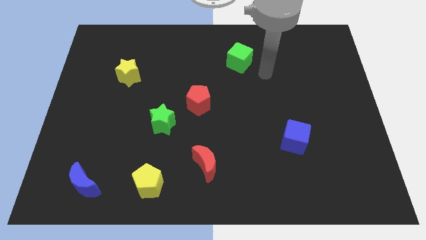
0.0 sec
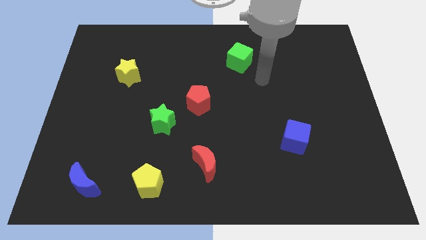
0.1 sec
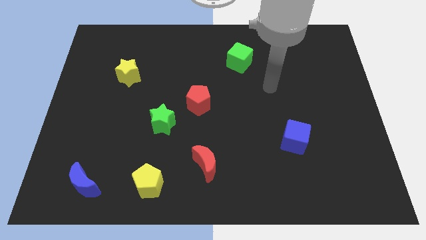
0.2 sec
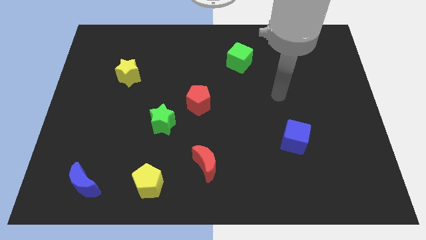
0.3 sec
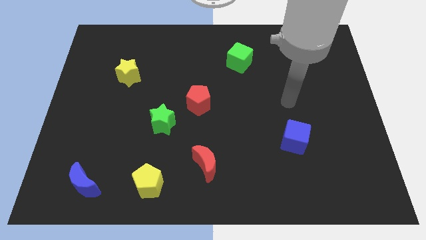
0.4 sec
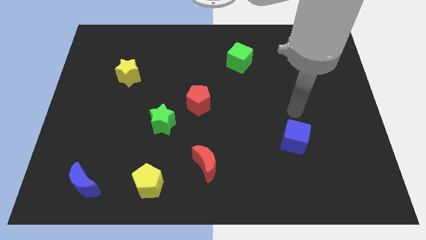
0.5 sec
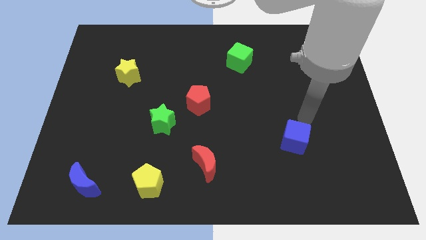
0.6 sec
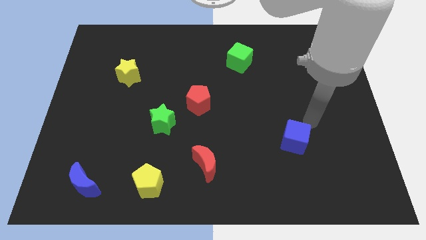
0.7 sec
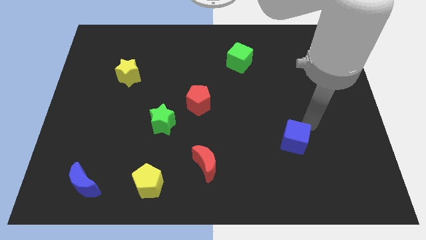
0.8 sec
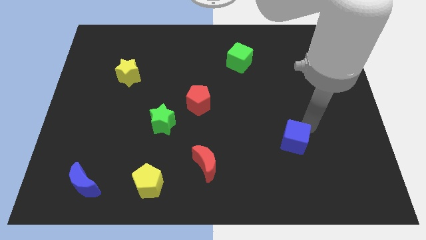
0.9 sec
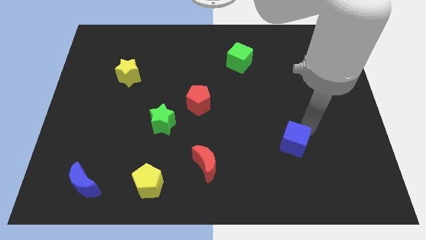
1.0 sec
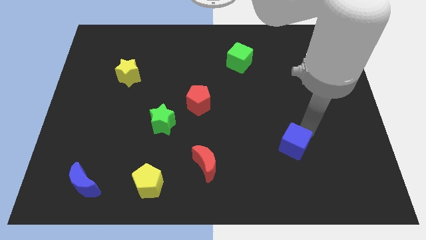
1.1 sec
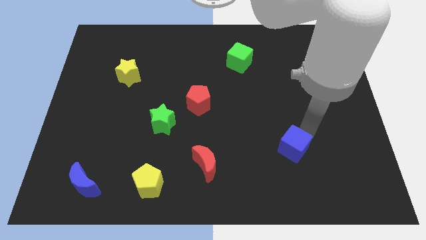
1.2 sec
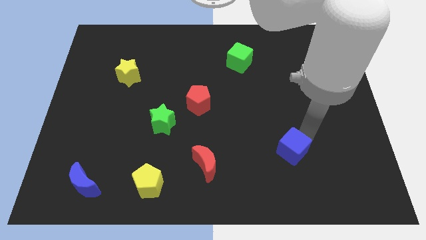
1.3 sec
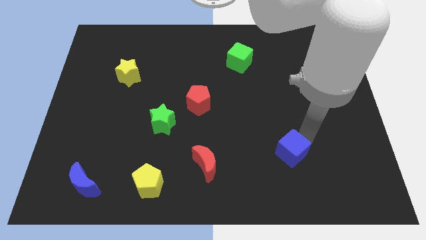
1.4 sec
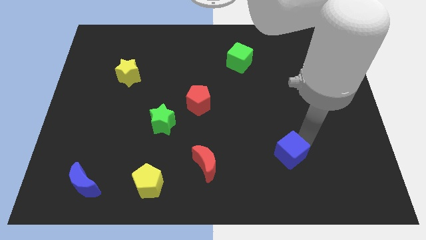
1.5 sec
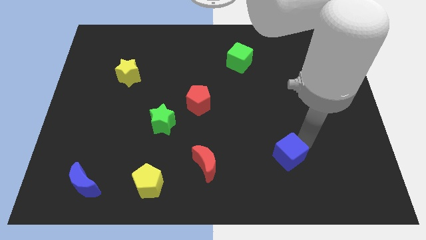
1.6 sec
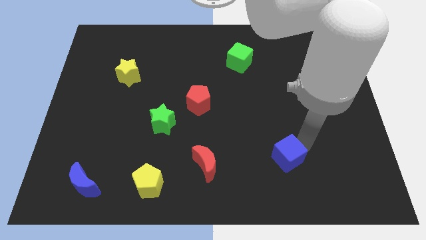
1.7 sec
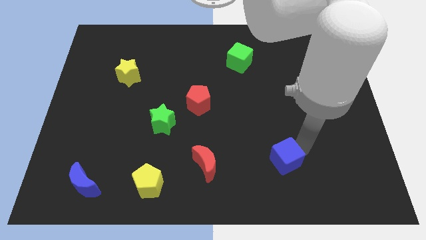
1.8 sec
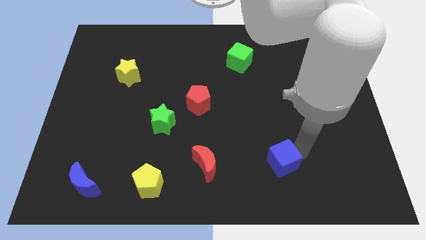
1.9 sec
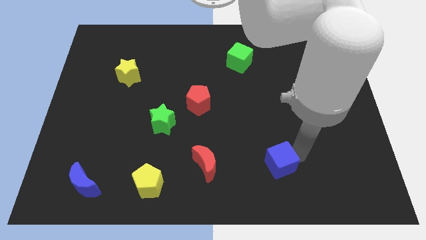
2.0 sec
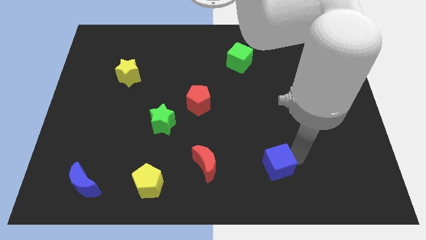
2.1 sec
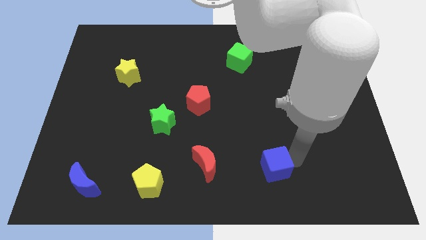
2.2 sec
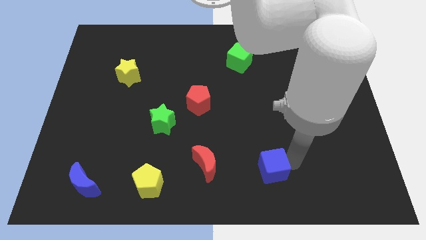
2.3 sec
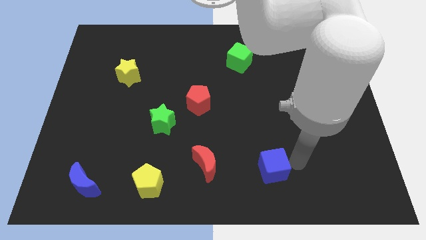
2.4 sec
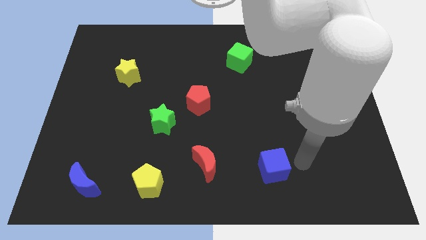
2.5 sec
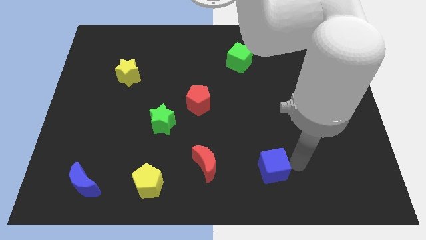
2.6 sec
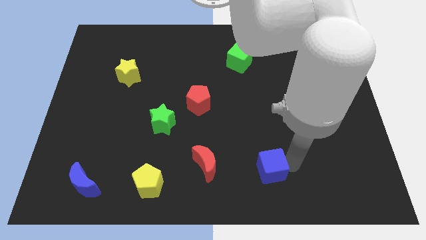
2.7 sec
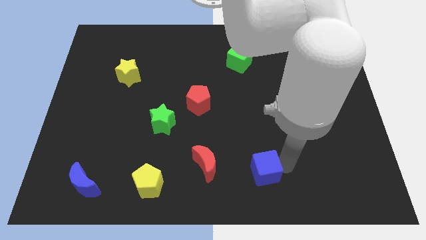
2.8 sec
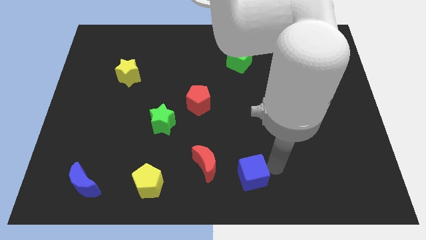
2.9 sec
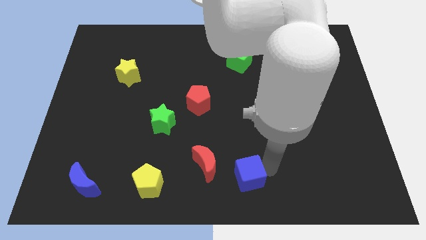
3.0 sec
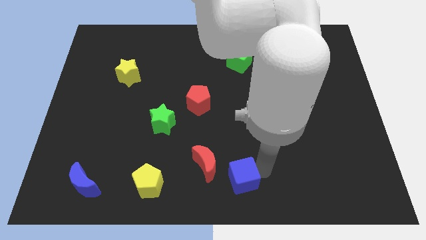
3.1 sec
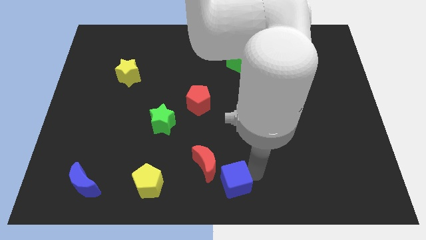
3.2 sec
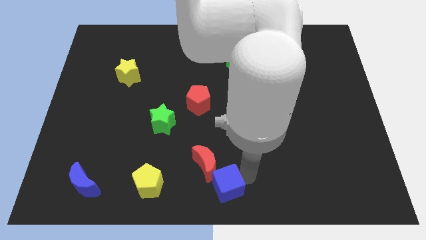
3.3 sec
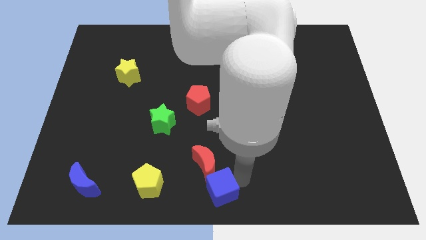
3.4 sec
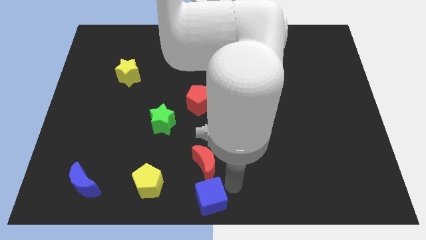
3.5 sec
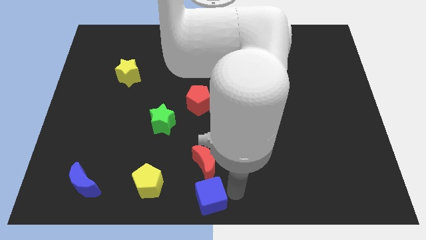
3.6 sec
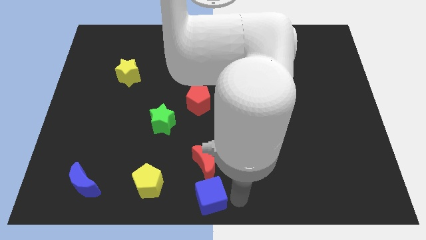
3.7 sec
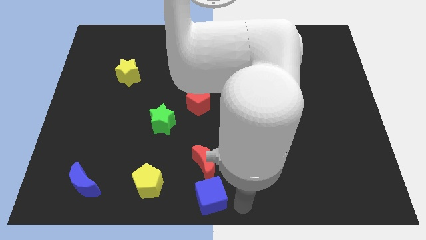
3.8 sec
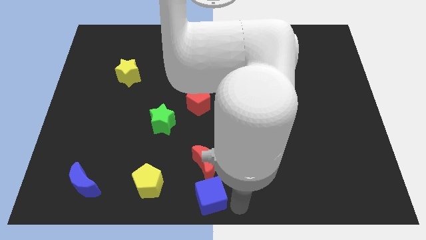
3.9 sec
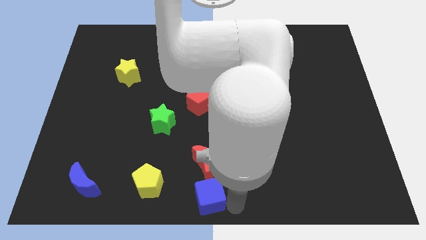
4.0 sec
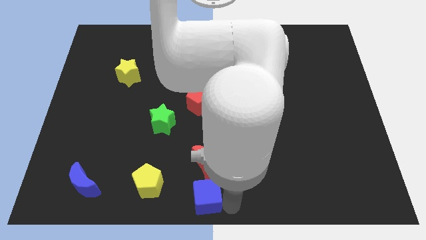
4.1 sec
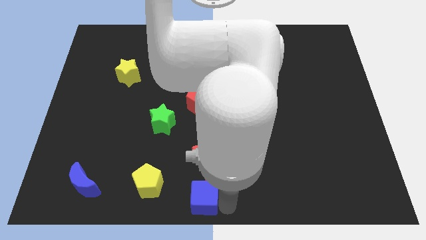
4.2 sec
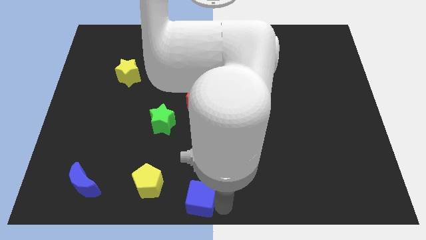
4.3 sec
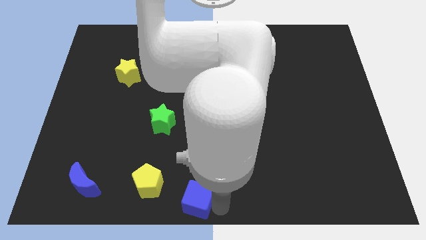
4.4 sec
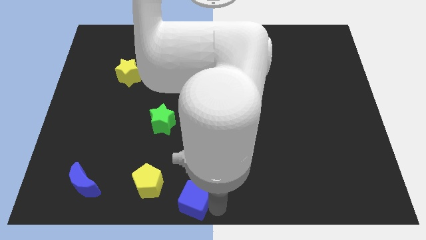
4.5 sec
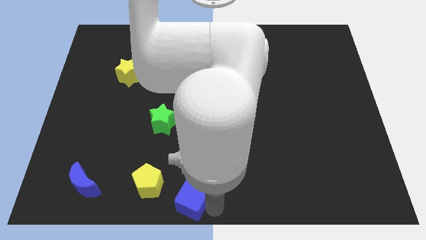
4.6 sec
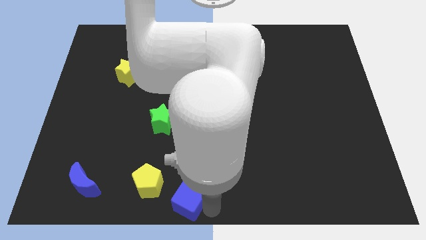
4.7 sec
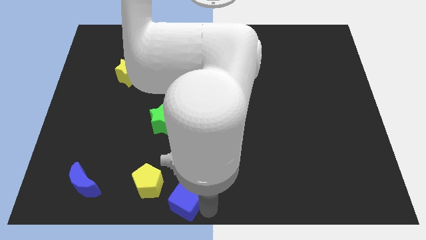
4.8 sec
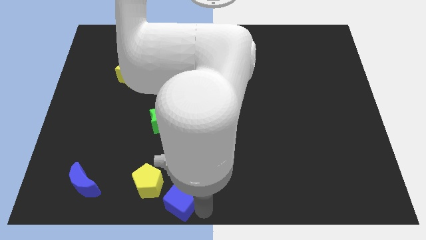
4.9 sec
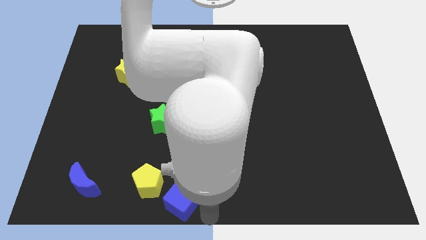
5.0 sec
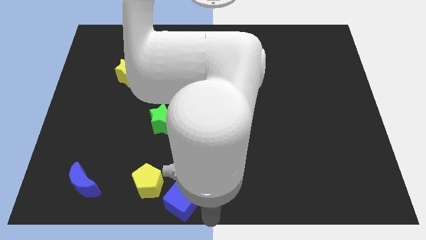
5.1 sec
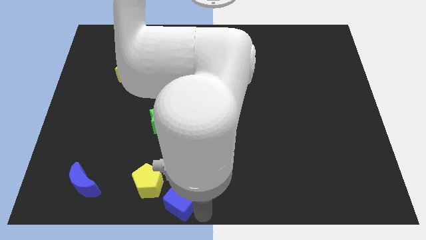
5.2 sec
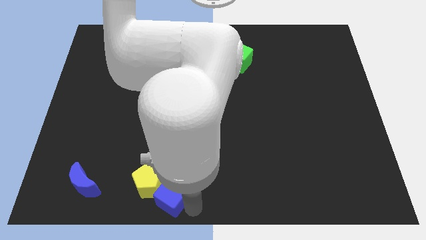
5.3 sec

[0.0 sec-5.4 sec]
move the blue cube towards the yellow pentagon

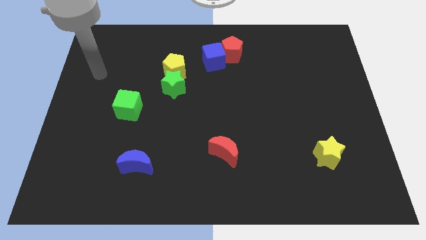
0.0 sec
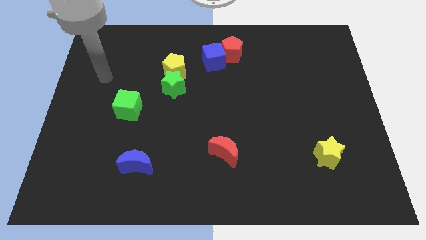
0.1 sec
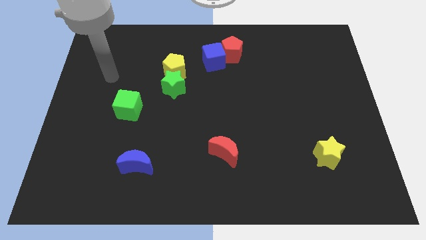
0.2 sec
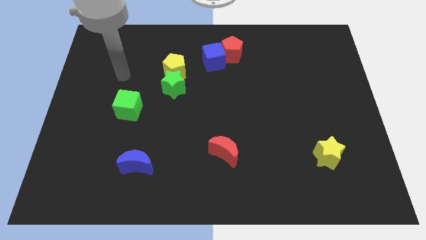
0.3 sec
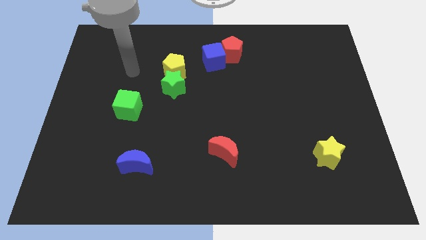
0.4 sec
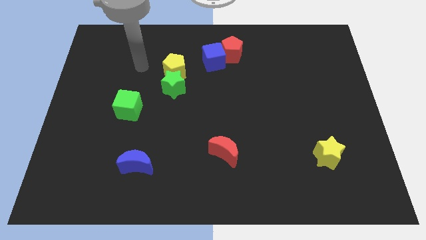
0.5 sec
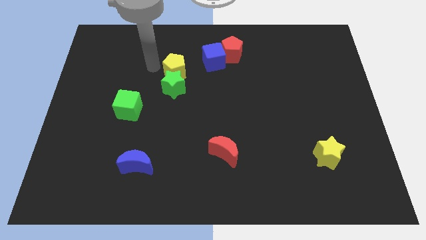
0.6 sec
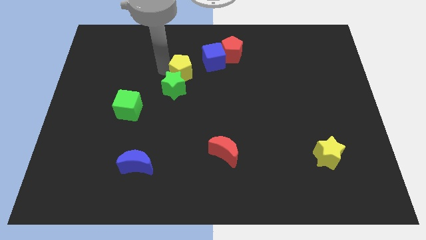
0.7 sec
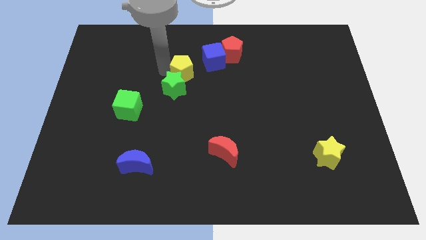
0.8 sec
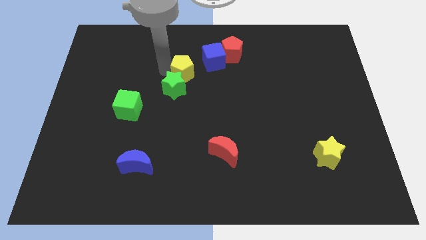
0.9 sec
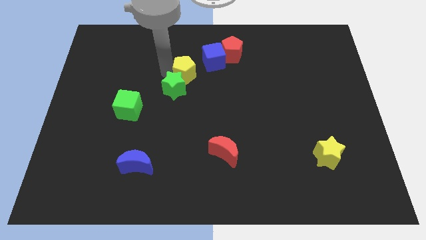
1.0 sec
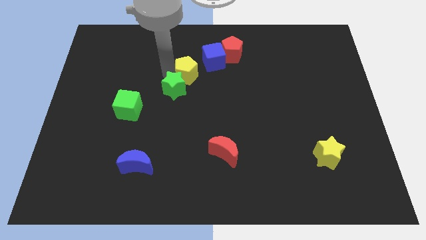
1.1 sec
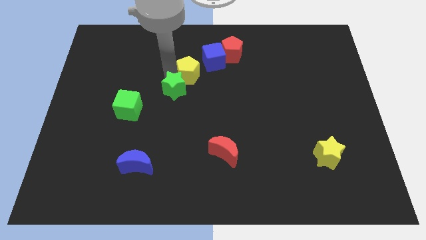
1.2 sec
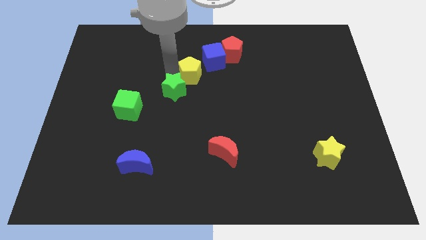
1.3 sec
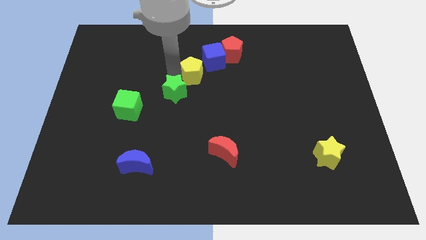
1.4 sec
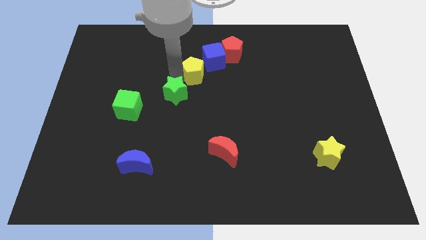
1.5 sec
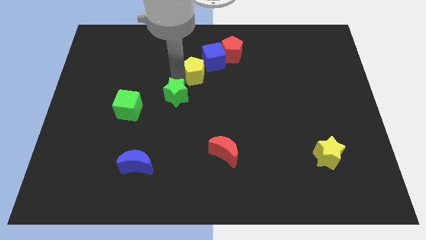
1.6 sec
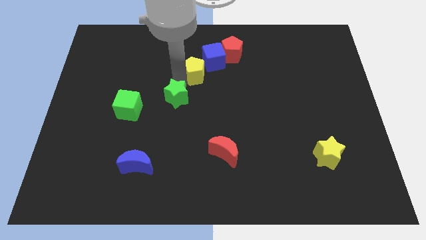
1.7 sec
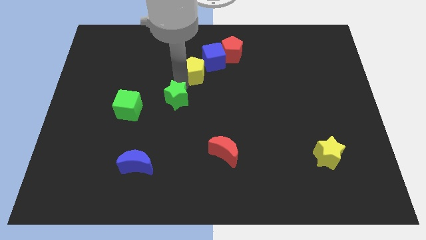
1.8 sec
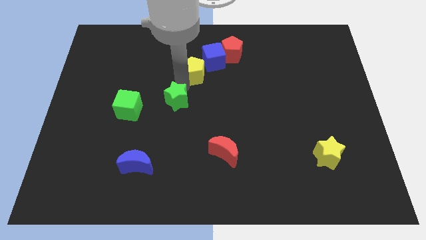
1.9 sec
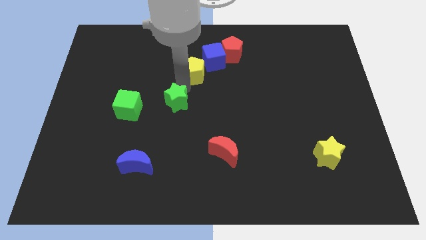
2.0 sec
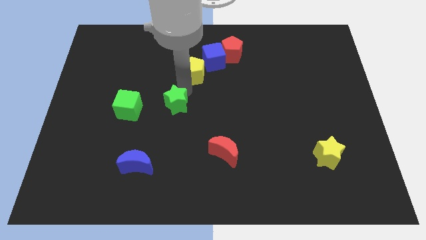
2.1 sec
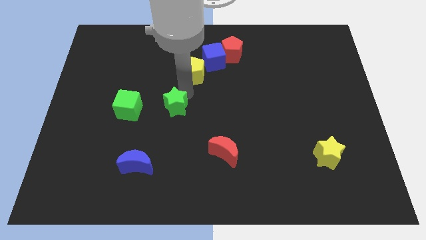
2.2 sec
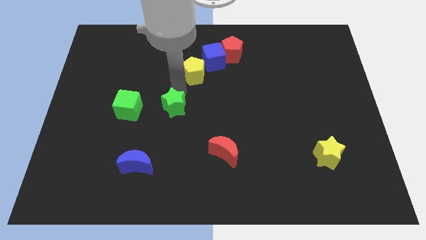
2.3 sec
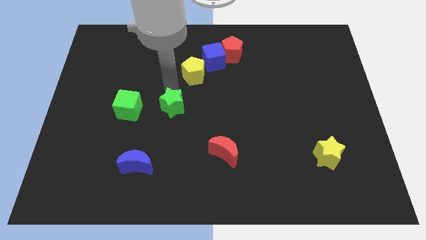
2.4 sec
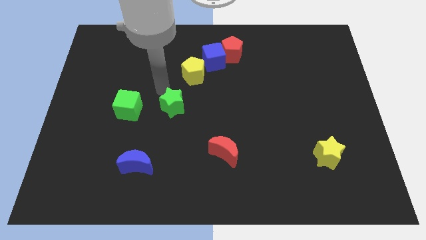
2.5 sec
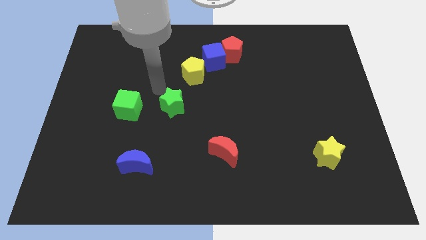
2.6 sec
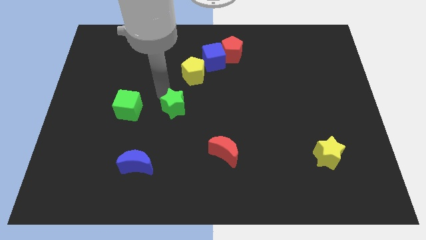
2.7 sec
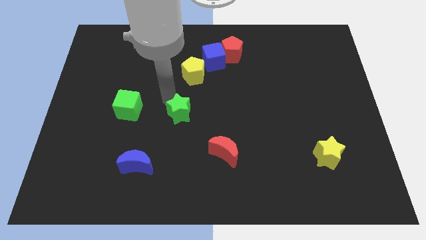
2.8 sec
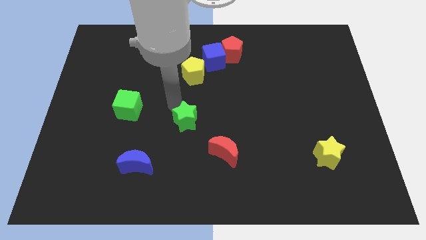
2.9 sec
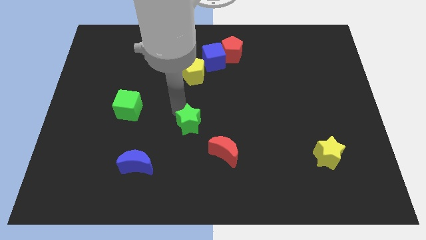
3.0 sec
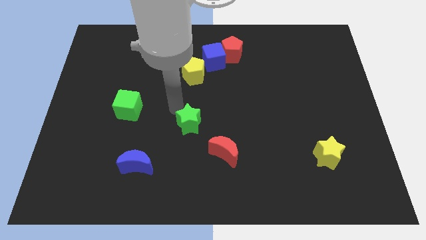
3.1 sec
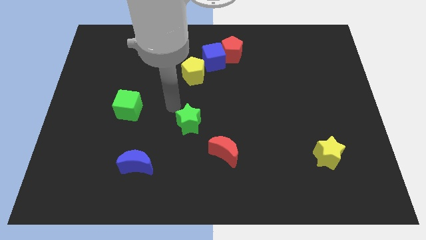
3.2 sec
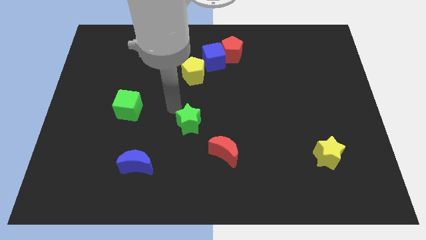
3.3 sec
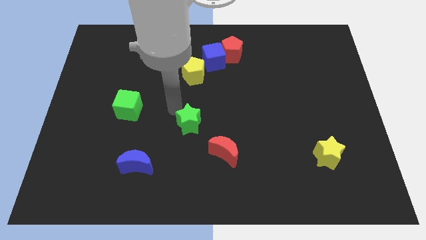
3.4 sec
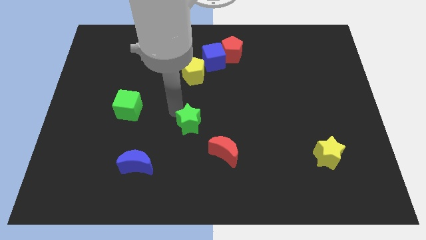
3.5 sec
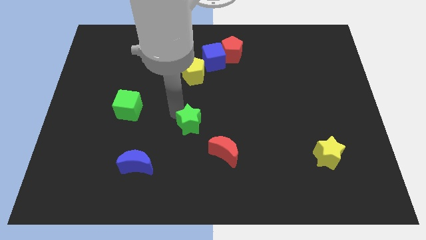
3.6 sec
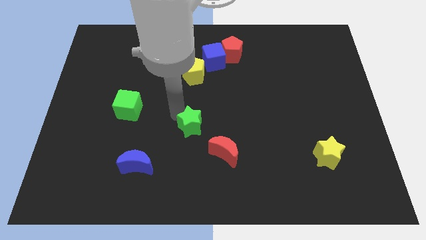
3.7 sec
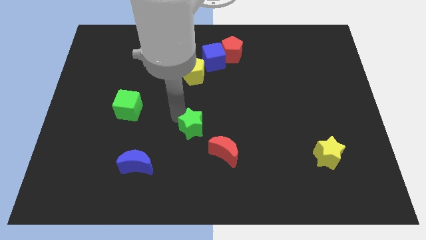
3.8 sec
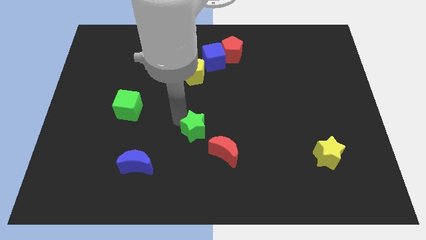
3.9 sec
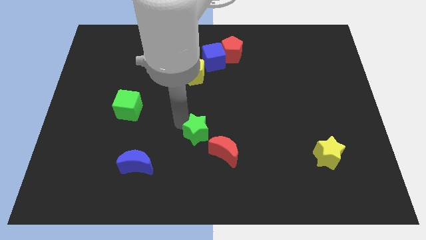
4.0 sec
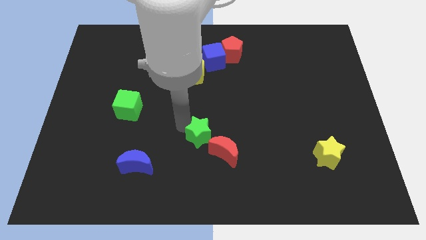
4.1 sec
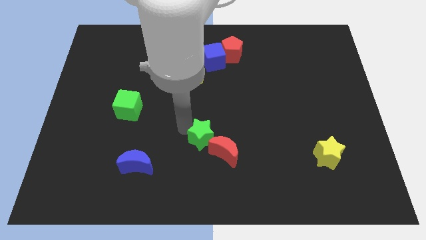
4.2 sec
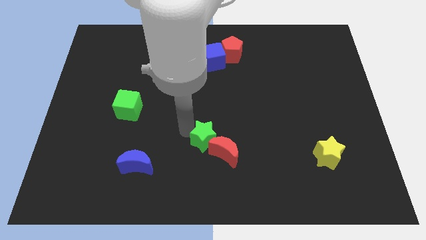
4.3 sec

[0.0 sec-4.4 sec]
move the green star close to the red moon
